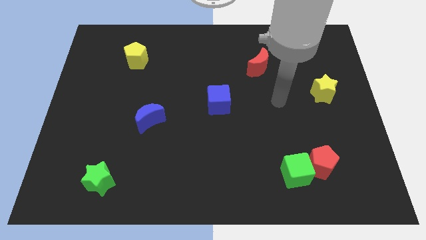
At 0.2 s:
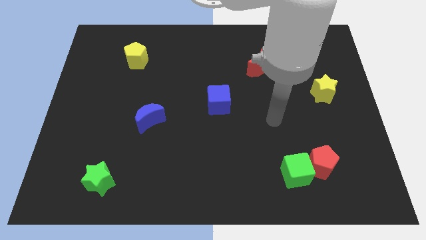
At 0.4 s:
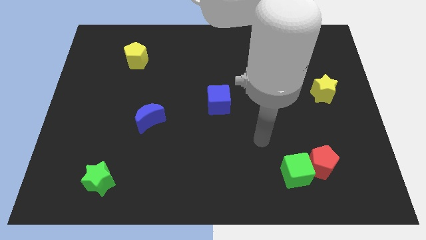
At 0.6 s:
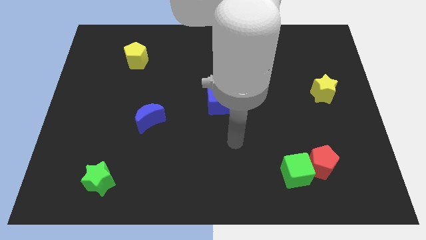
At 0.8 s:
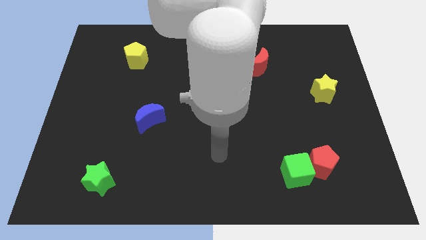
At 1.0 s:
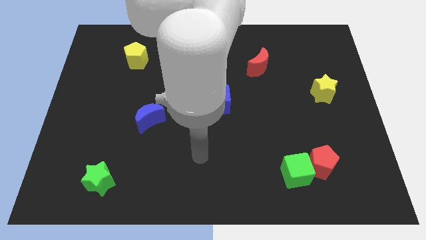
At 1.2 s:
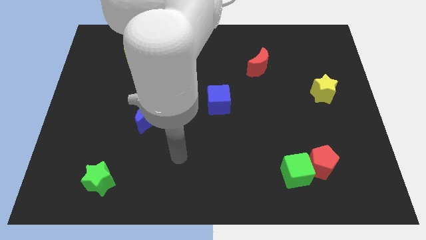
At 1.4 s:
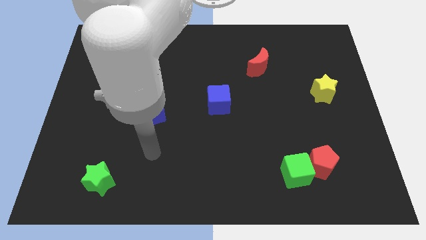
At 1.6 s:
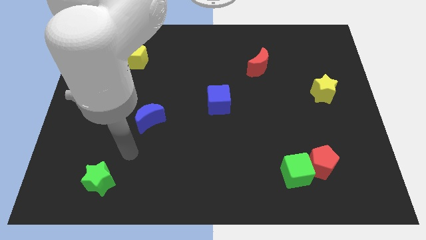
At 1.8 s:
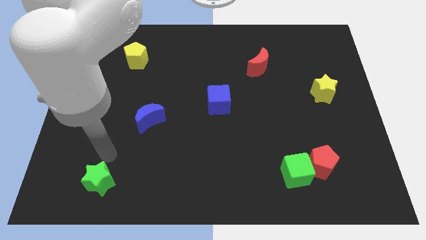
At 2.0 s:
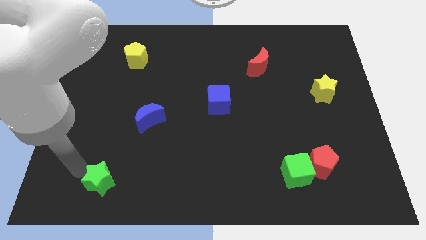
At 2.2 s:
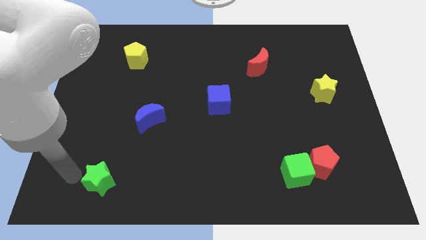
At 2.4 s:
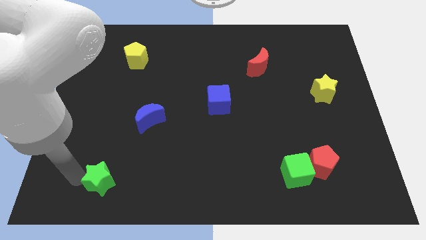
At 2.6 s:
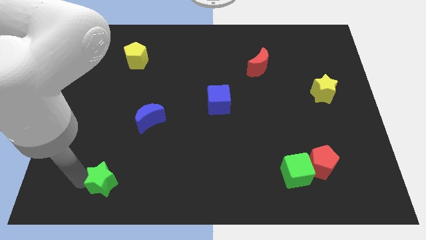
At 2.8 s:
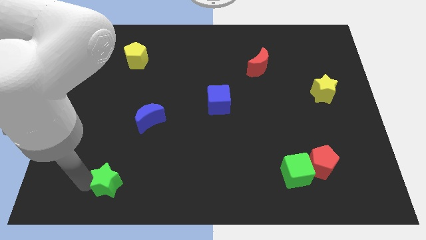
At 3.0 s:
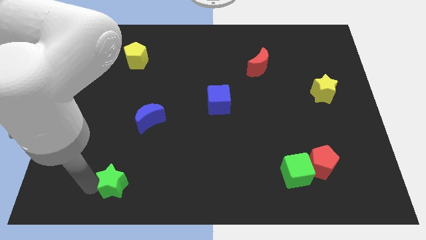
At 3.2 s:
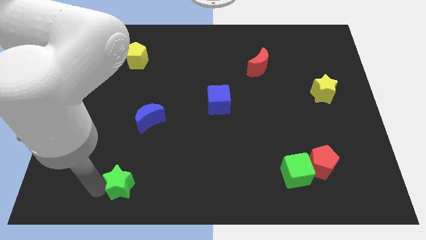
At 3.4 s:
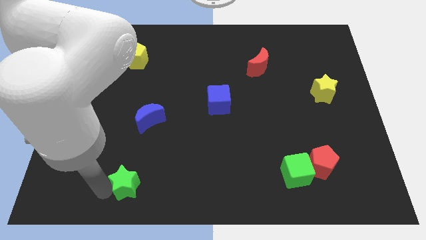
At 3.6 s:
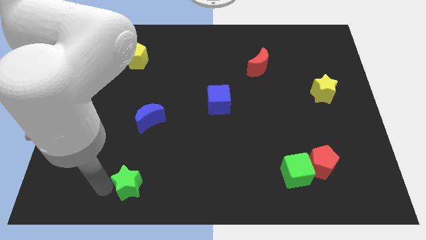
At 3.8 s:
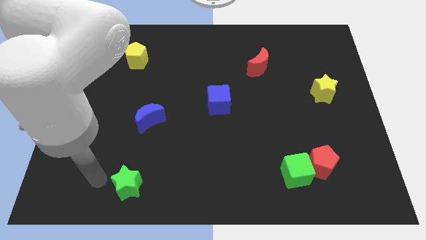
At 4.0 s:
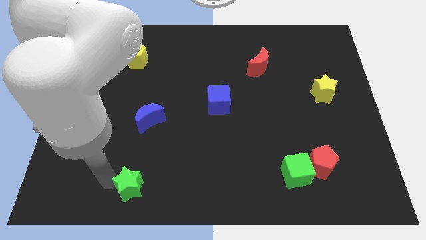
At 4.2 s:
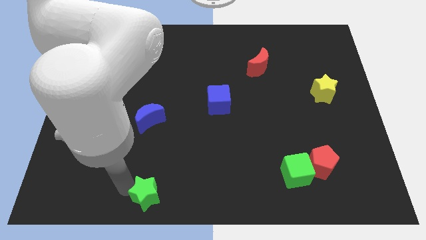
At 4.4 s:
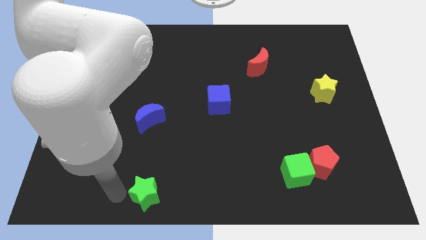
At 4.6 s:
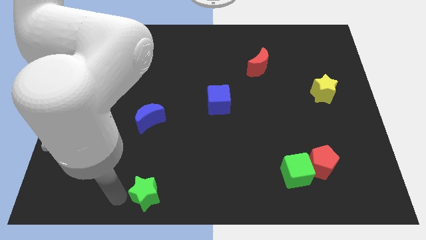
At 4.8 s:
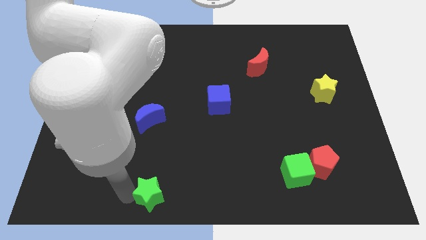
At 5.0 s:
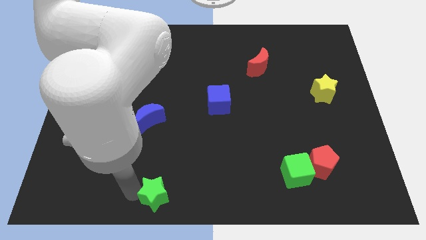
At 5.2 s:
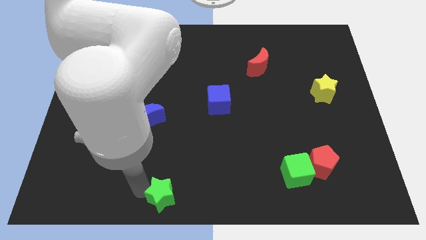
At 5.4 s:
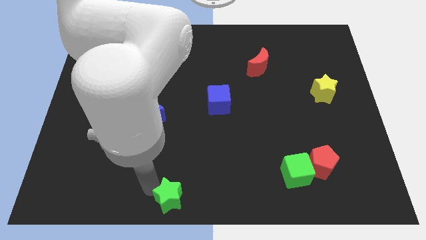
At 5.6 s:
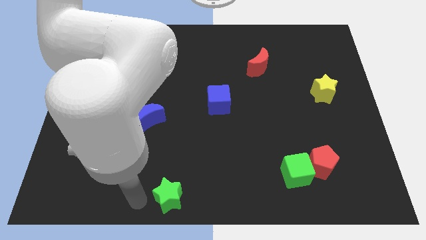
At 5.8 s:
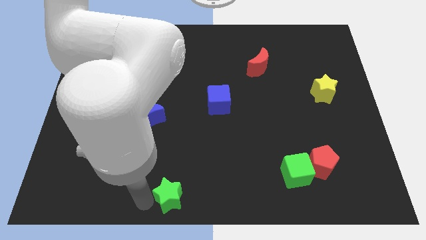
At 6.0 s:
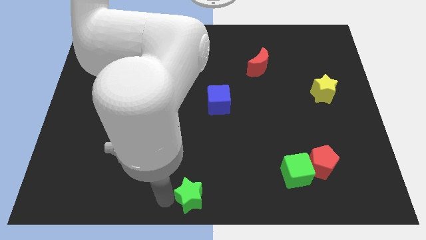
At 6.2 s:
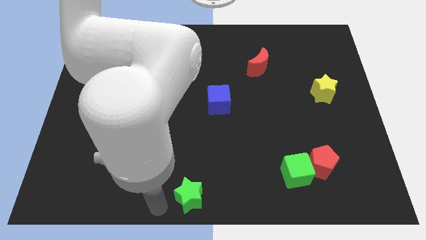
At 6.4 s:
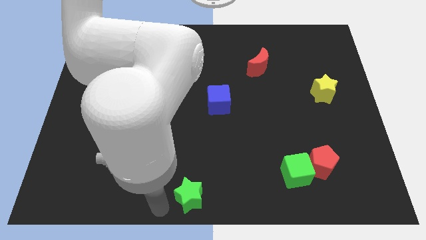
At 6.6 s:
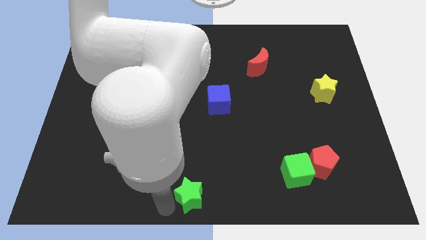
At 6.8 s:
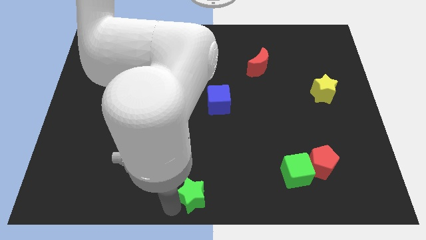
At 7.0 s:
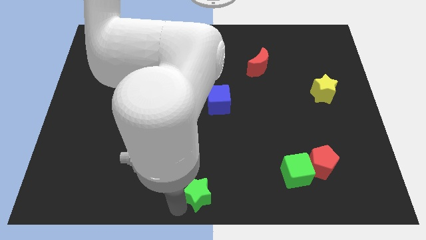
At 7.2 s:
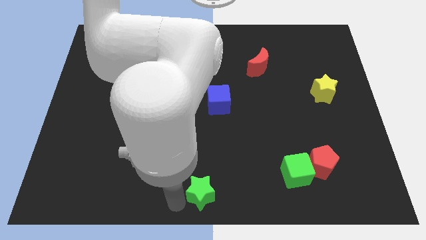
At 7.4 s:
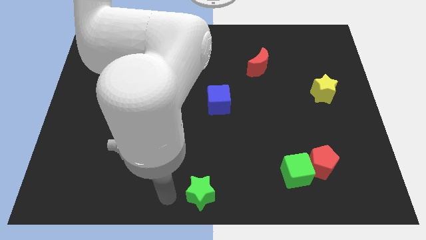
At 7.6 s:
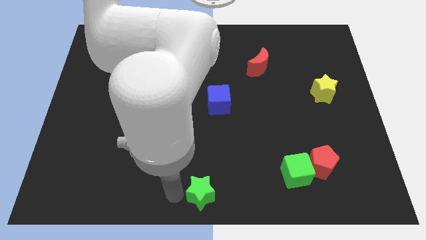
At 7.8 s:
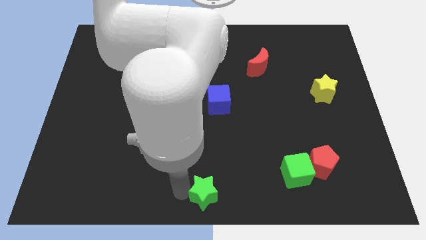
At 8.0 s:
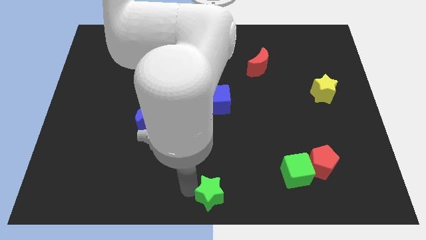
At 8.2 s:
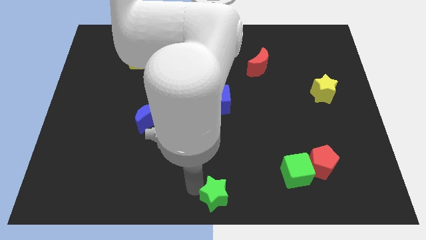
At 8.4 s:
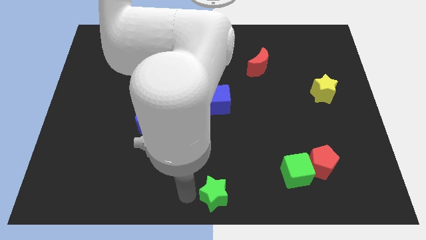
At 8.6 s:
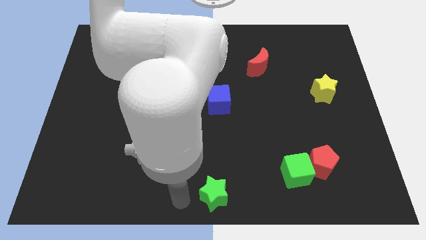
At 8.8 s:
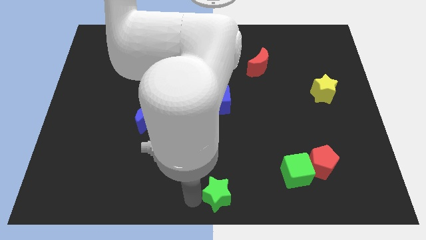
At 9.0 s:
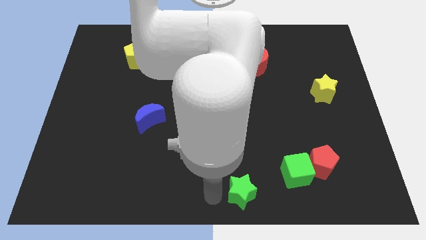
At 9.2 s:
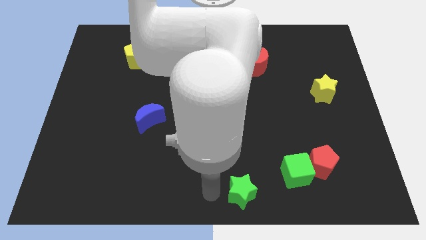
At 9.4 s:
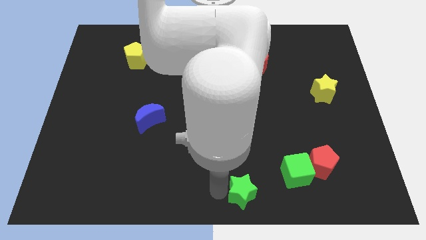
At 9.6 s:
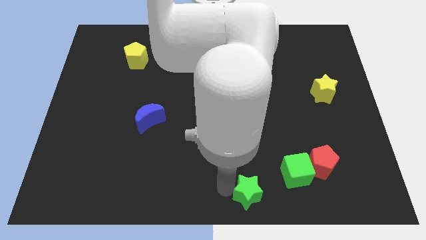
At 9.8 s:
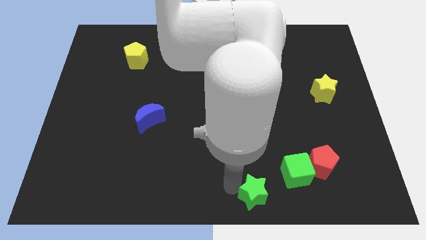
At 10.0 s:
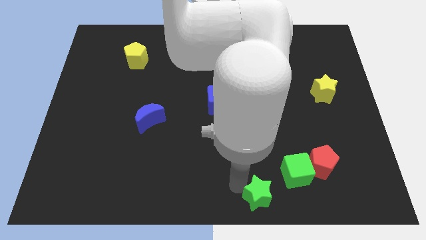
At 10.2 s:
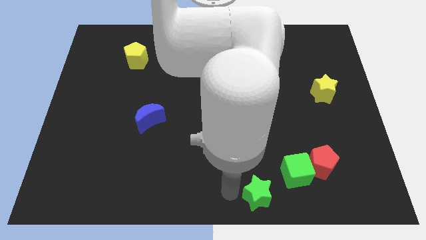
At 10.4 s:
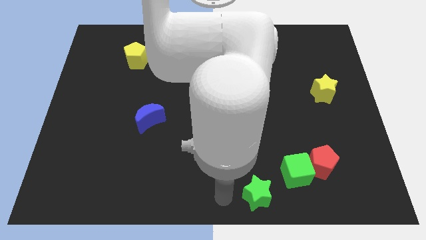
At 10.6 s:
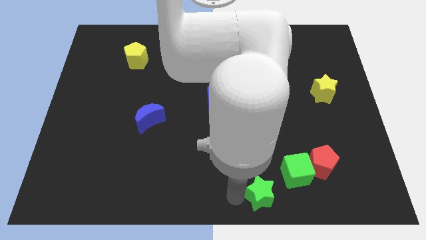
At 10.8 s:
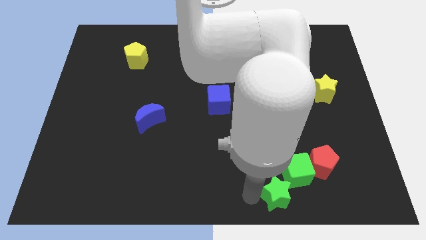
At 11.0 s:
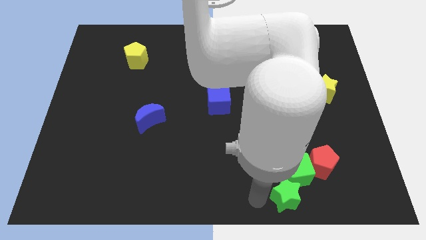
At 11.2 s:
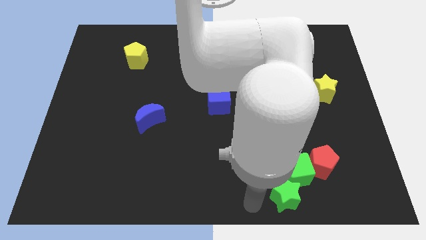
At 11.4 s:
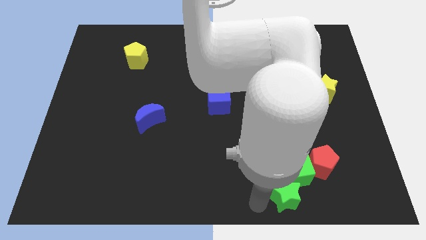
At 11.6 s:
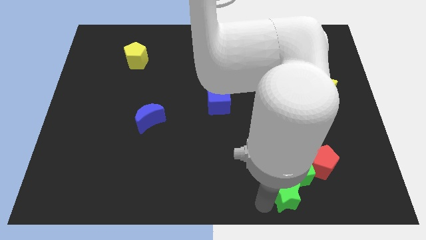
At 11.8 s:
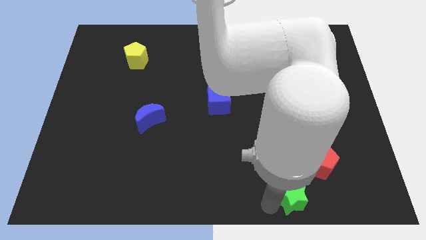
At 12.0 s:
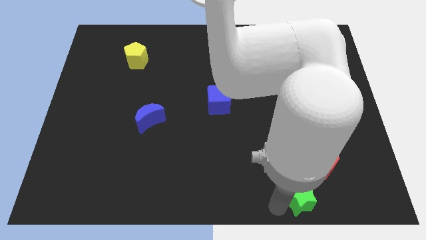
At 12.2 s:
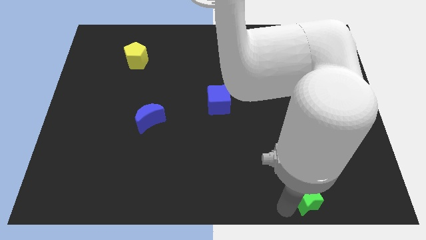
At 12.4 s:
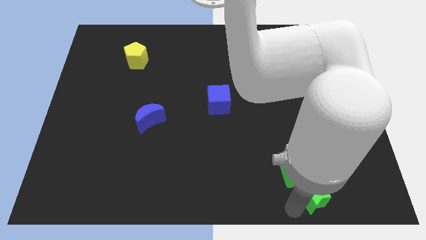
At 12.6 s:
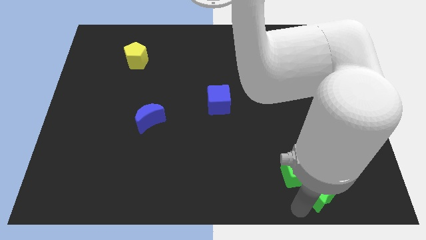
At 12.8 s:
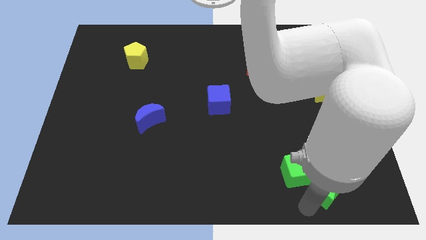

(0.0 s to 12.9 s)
push the green star to the right of the green cube
